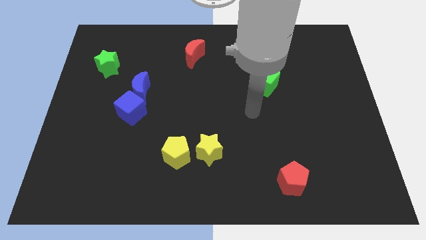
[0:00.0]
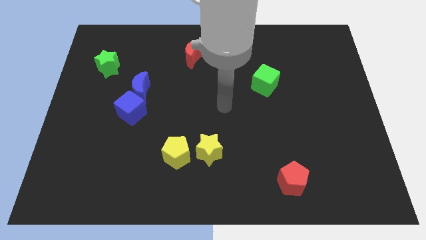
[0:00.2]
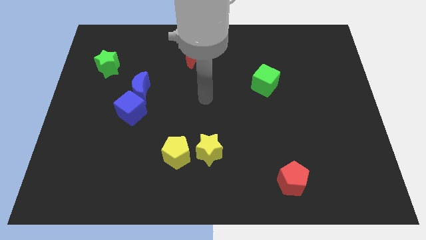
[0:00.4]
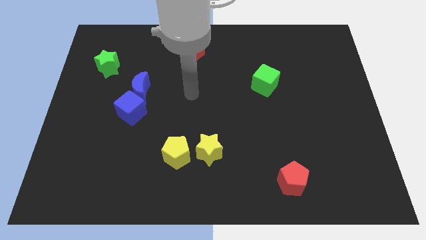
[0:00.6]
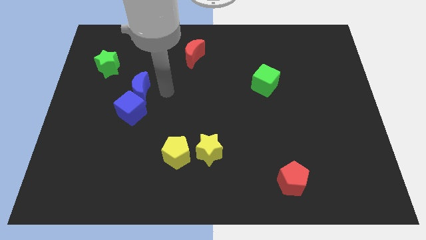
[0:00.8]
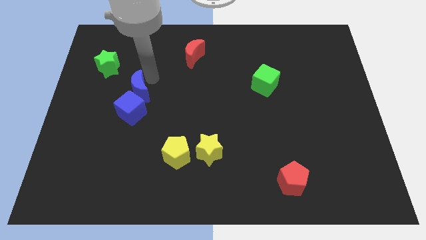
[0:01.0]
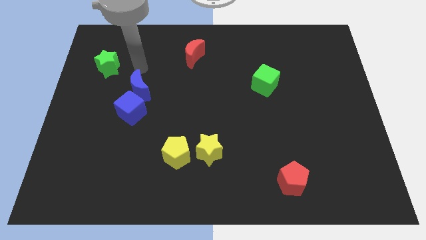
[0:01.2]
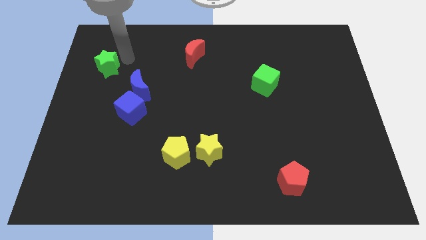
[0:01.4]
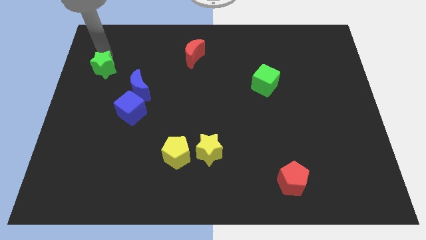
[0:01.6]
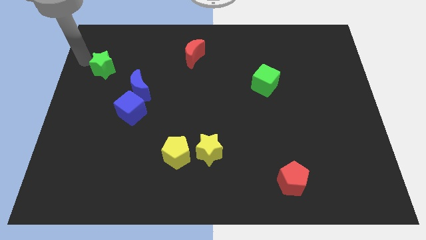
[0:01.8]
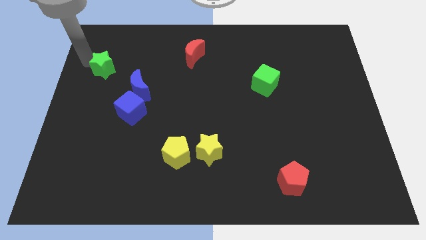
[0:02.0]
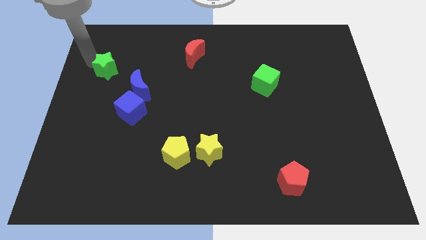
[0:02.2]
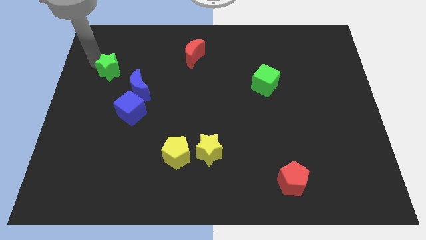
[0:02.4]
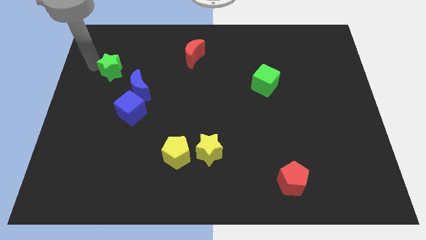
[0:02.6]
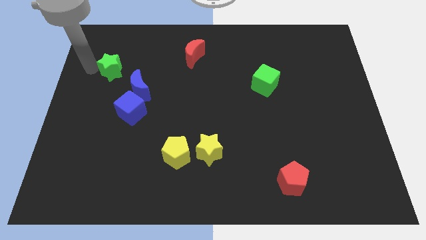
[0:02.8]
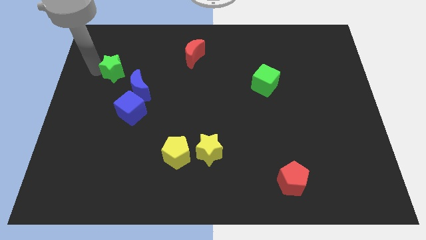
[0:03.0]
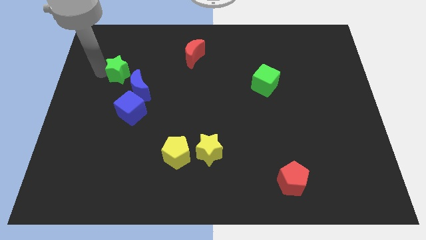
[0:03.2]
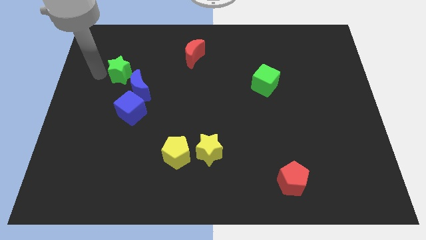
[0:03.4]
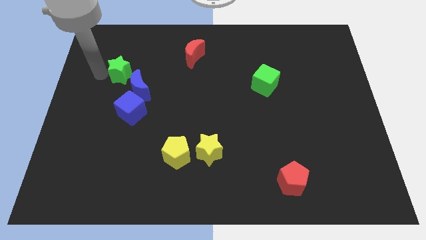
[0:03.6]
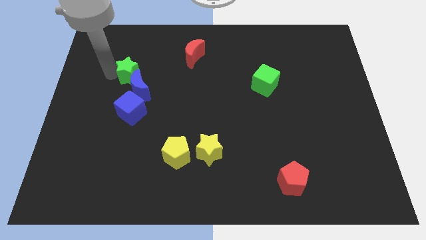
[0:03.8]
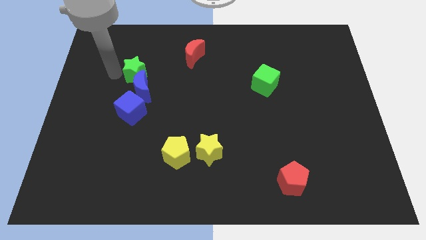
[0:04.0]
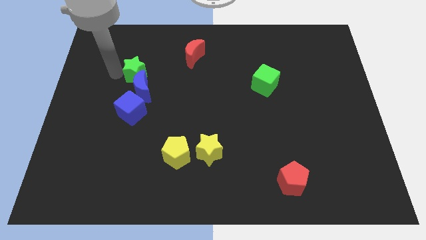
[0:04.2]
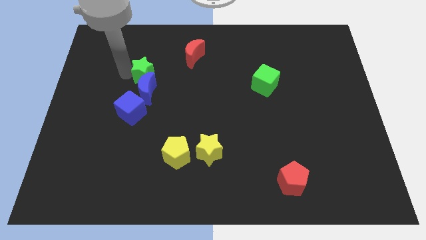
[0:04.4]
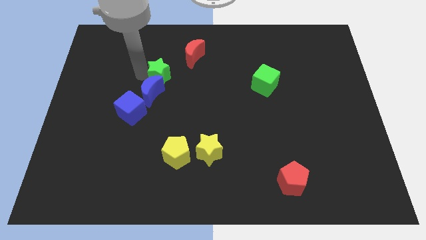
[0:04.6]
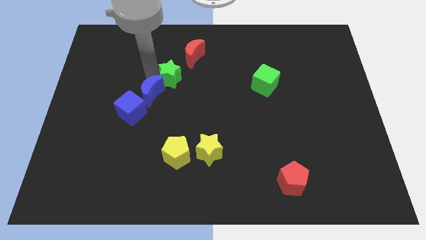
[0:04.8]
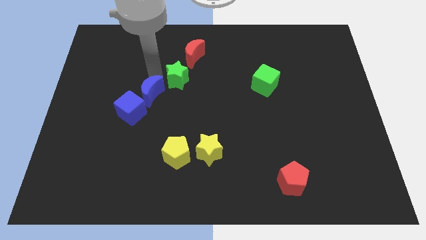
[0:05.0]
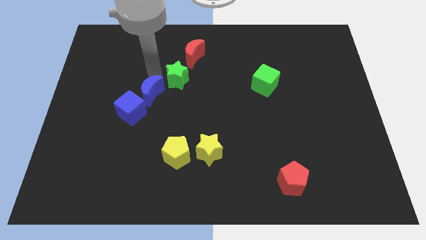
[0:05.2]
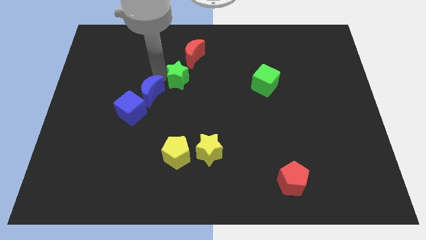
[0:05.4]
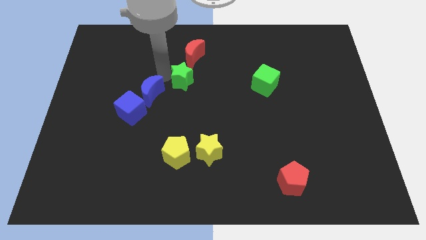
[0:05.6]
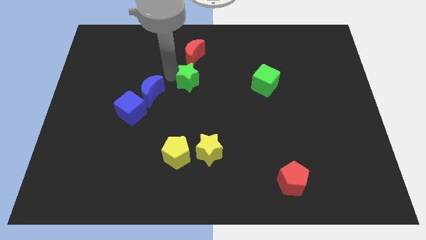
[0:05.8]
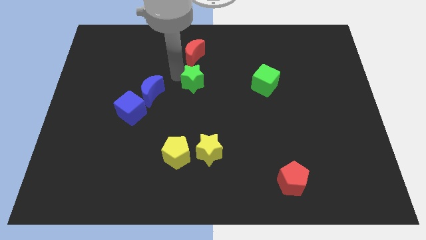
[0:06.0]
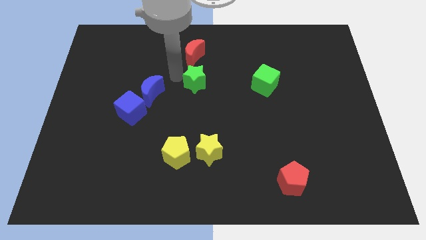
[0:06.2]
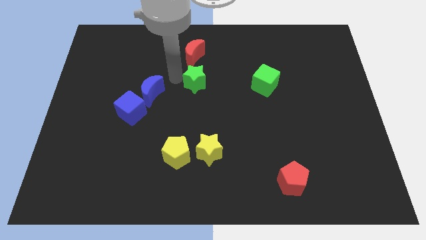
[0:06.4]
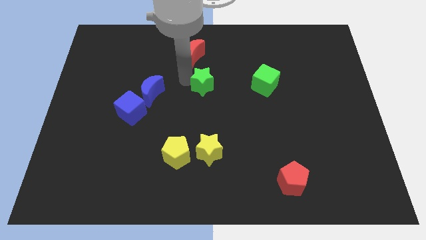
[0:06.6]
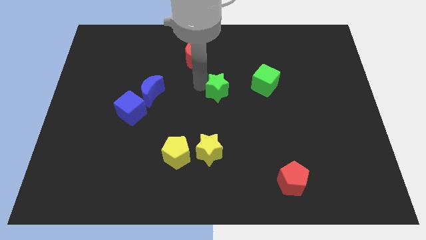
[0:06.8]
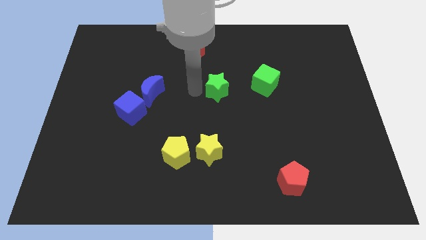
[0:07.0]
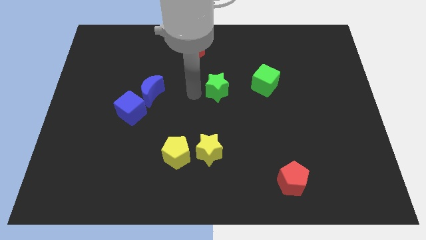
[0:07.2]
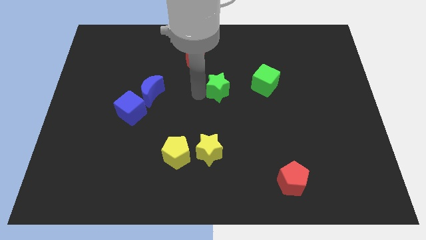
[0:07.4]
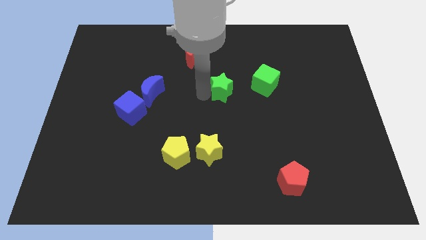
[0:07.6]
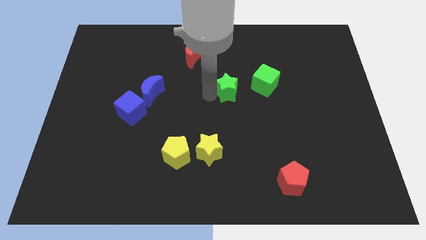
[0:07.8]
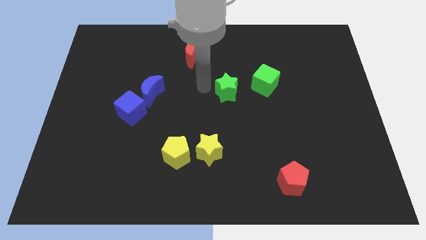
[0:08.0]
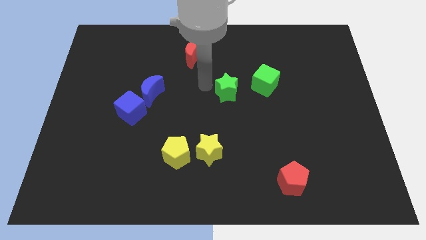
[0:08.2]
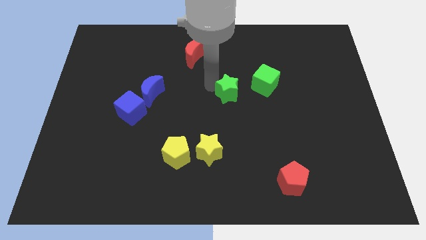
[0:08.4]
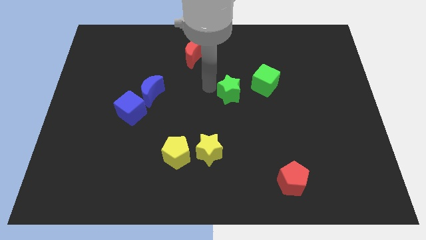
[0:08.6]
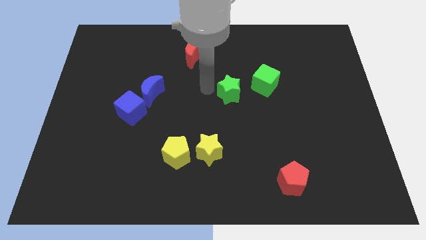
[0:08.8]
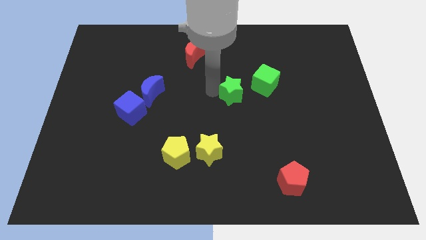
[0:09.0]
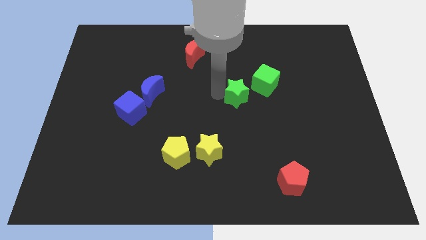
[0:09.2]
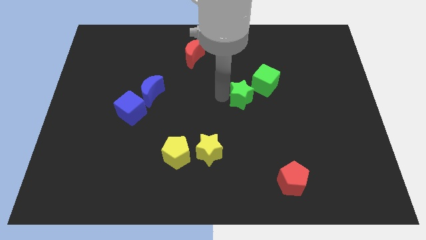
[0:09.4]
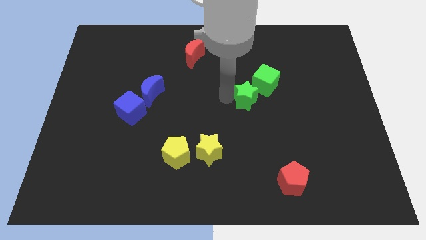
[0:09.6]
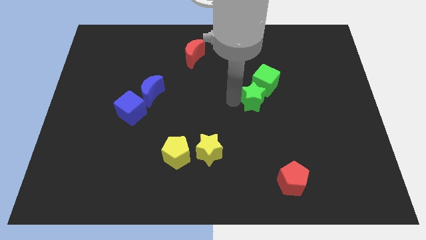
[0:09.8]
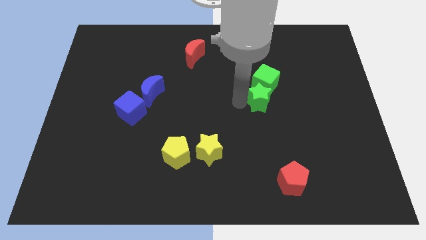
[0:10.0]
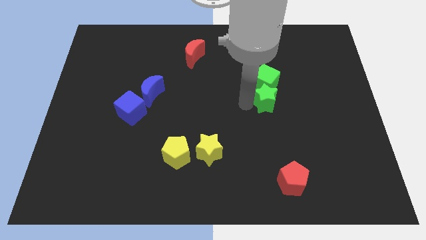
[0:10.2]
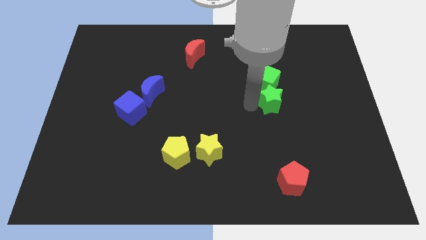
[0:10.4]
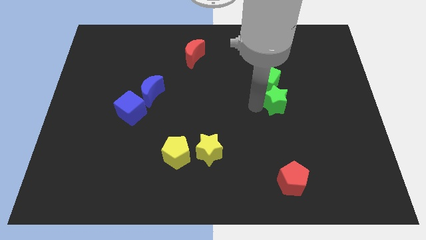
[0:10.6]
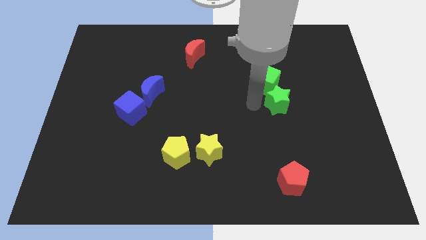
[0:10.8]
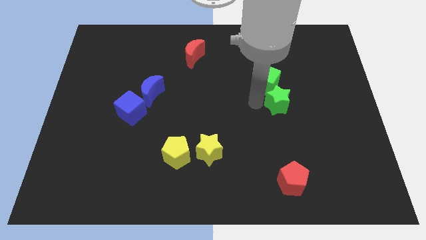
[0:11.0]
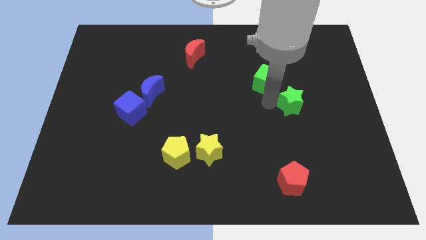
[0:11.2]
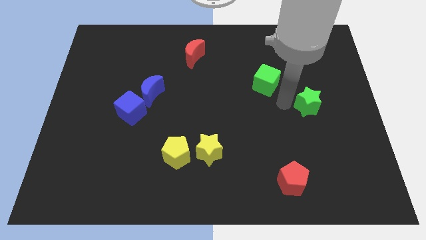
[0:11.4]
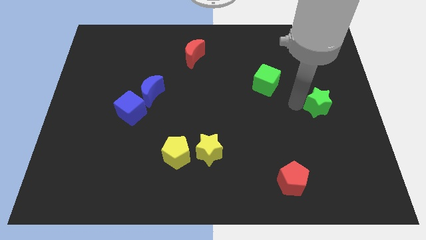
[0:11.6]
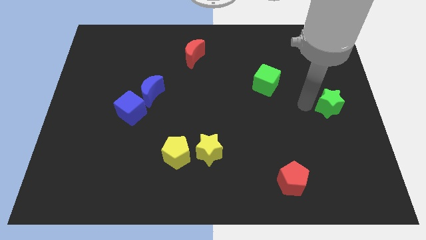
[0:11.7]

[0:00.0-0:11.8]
slide the green star to the right side

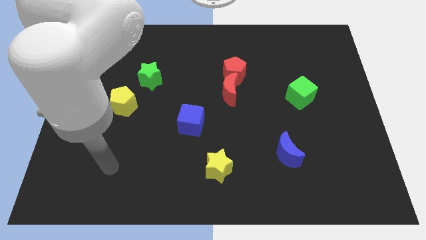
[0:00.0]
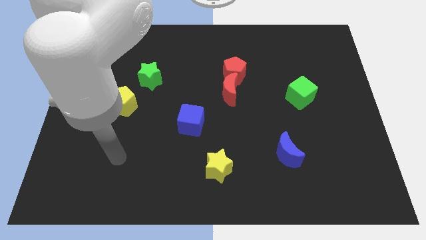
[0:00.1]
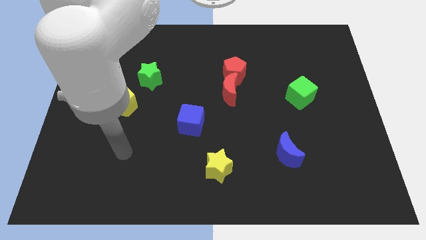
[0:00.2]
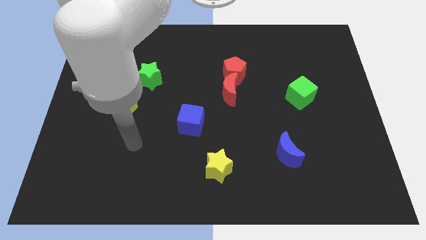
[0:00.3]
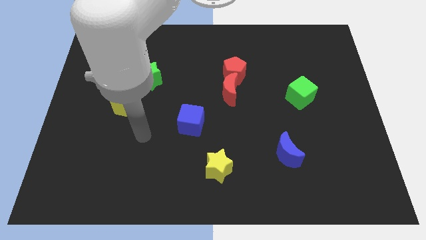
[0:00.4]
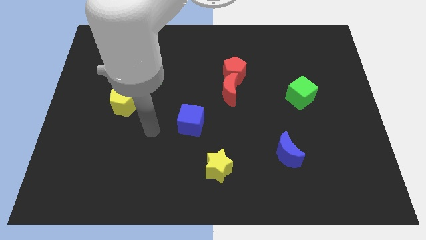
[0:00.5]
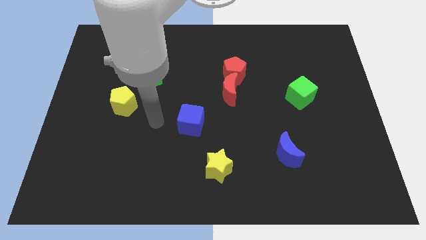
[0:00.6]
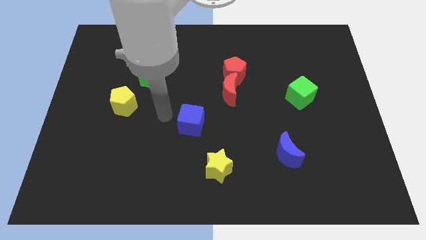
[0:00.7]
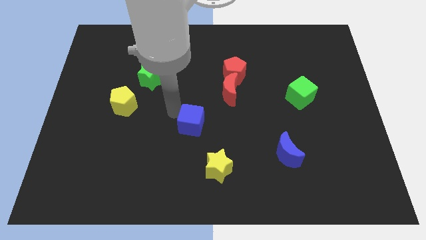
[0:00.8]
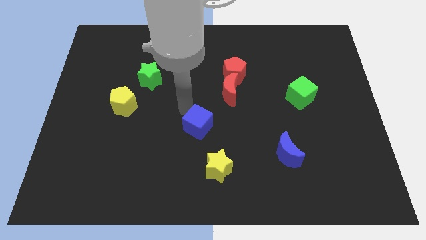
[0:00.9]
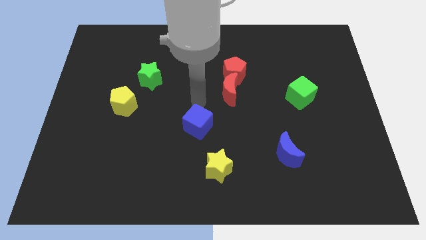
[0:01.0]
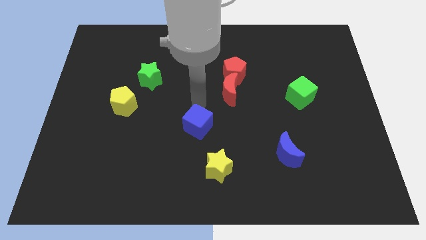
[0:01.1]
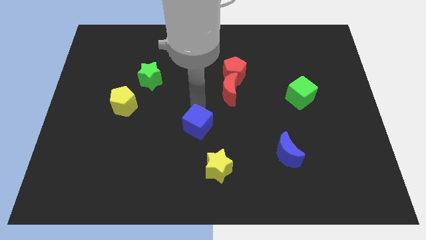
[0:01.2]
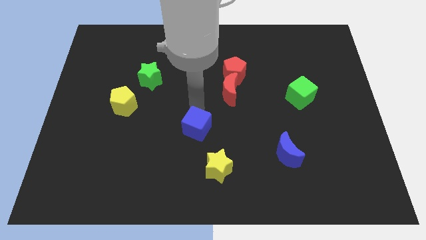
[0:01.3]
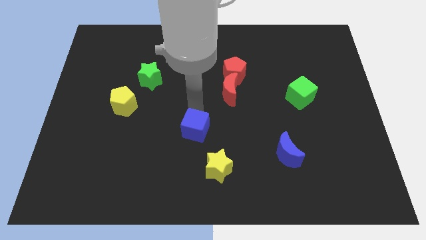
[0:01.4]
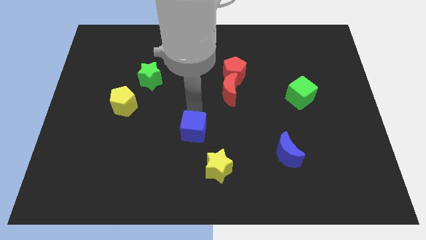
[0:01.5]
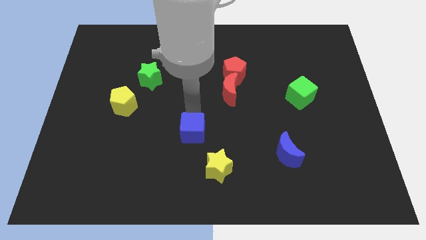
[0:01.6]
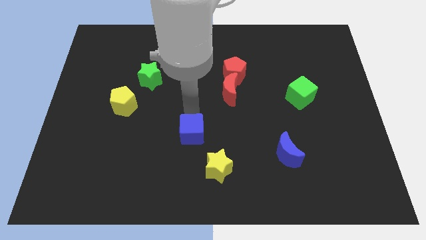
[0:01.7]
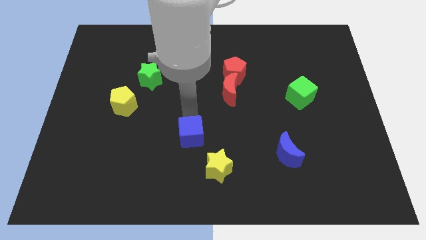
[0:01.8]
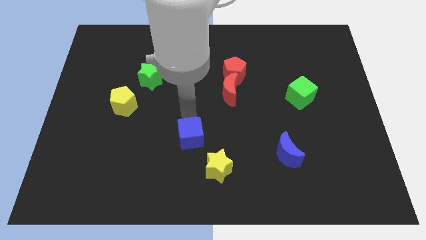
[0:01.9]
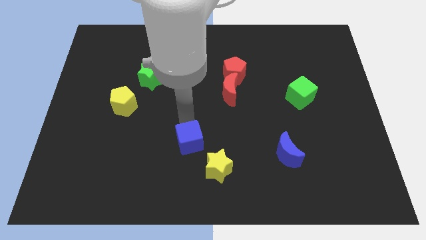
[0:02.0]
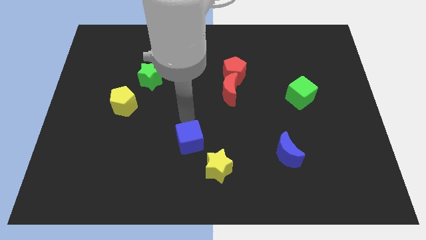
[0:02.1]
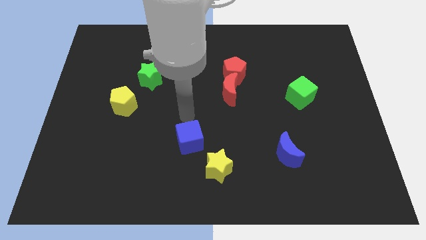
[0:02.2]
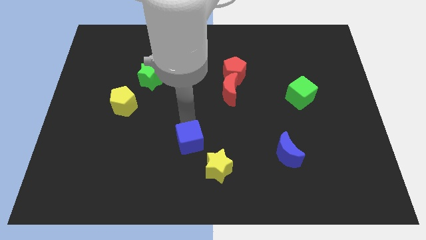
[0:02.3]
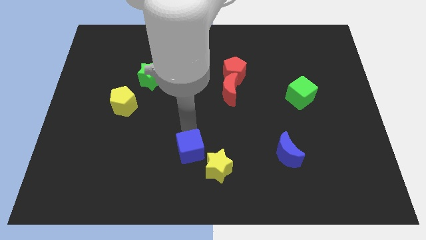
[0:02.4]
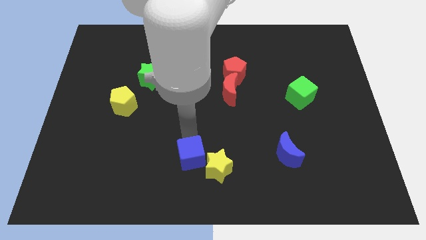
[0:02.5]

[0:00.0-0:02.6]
push the blue cube to the bottom
